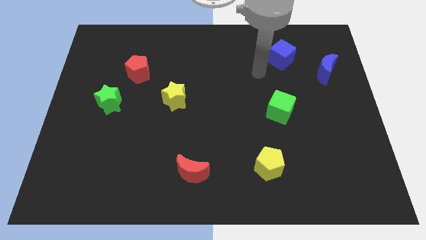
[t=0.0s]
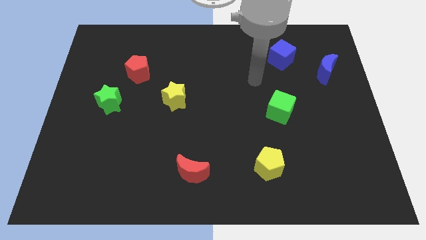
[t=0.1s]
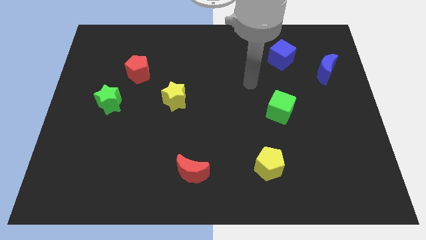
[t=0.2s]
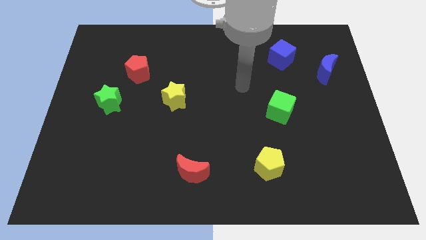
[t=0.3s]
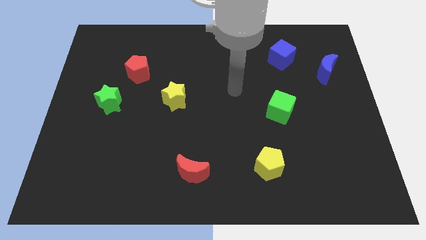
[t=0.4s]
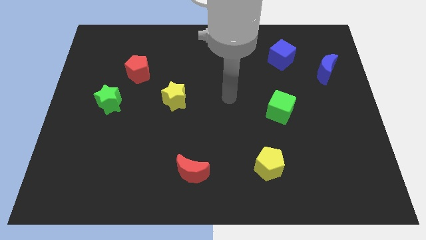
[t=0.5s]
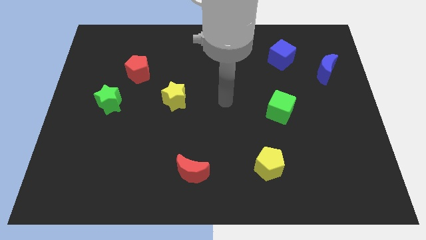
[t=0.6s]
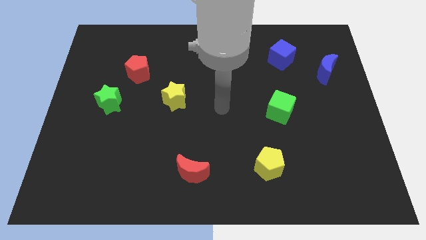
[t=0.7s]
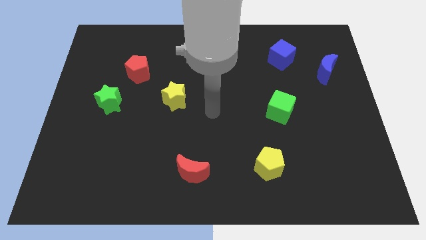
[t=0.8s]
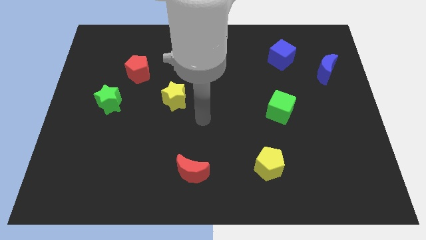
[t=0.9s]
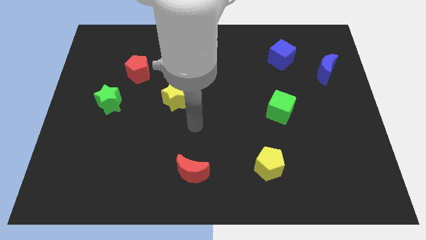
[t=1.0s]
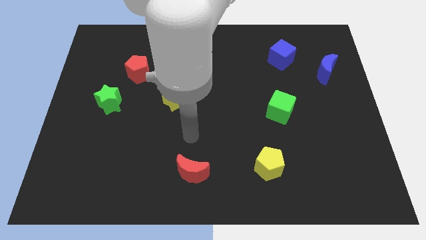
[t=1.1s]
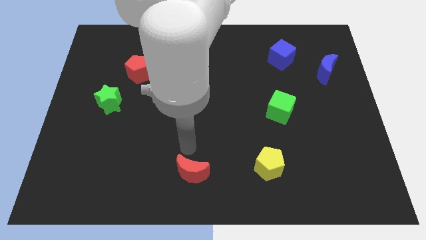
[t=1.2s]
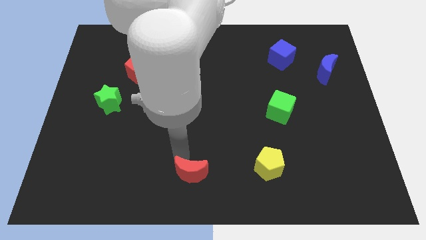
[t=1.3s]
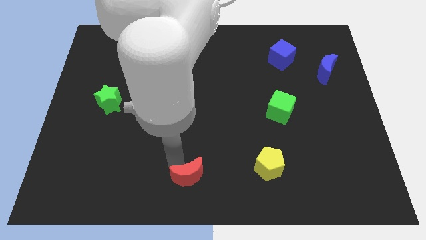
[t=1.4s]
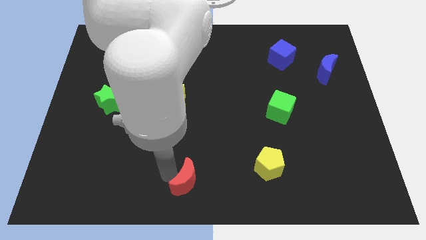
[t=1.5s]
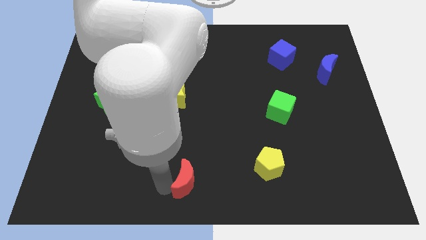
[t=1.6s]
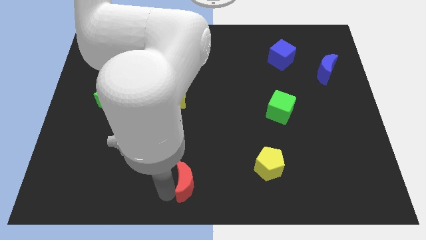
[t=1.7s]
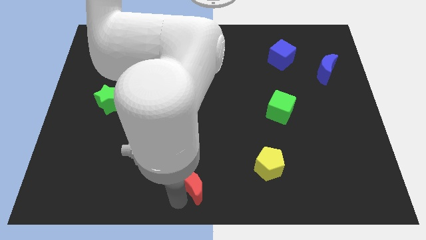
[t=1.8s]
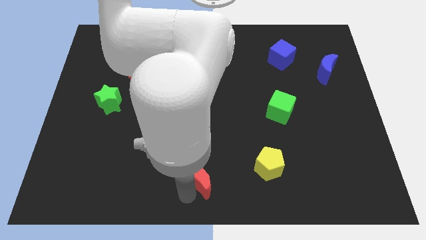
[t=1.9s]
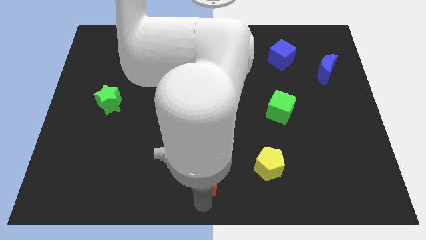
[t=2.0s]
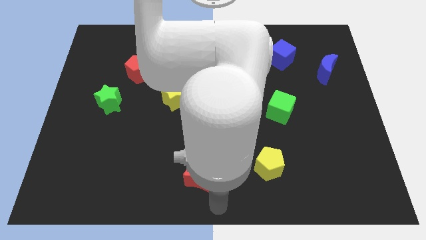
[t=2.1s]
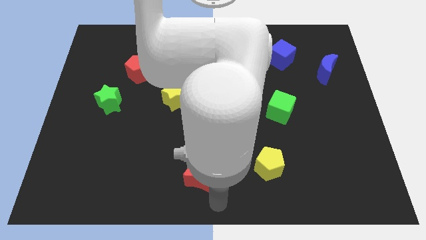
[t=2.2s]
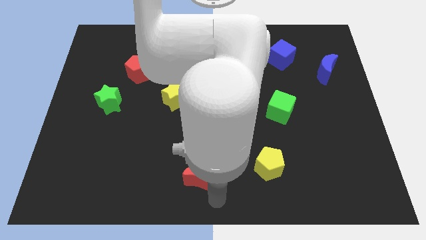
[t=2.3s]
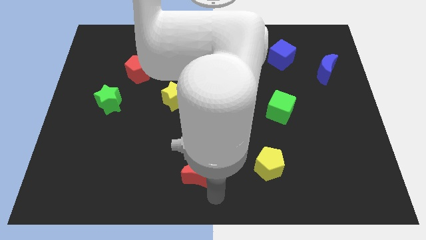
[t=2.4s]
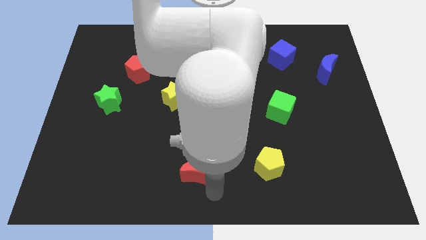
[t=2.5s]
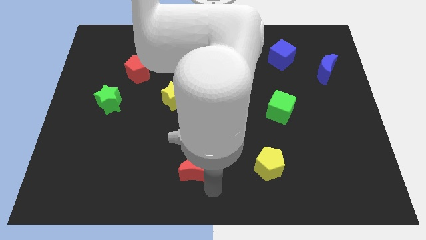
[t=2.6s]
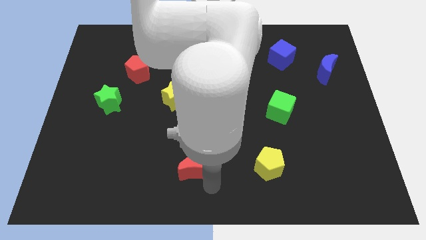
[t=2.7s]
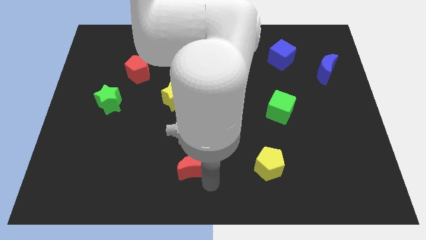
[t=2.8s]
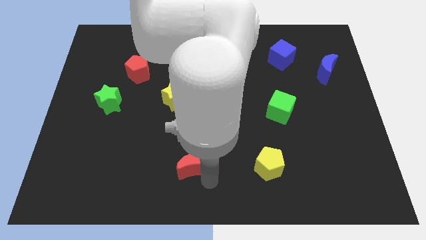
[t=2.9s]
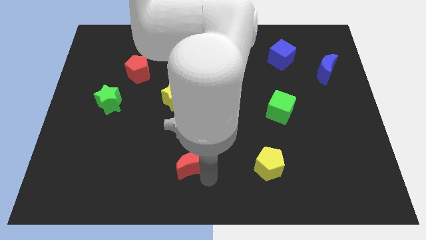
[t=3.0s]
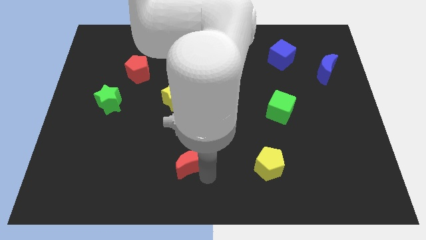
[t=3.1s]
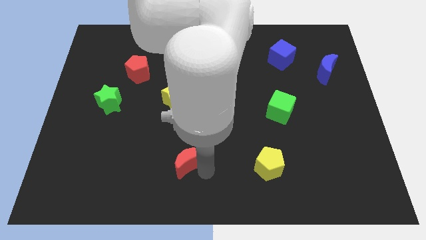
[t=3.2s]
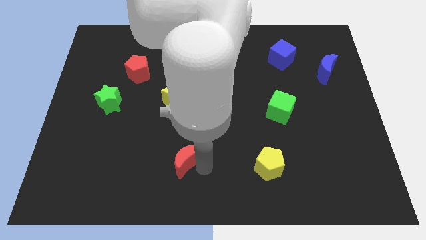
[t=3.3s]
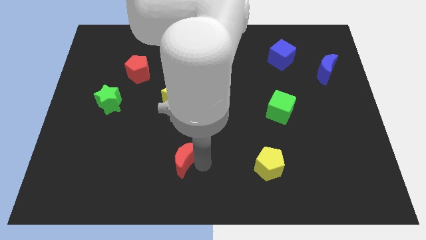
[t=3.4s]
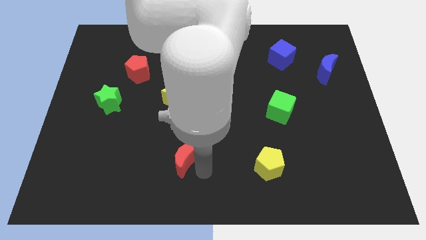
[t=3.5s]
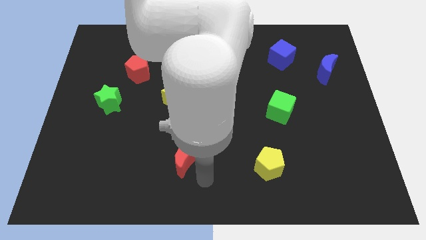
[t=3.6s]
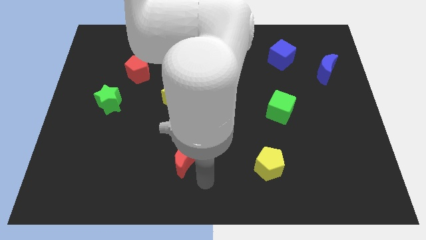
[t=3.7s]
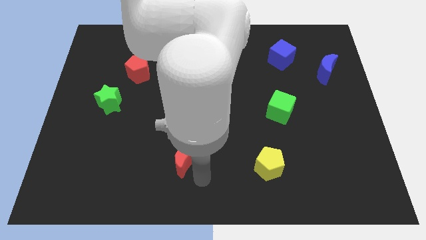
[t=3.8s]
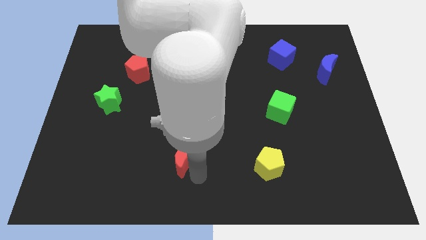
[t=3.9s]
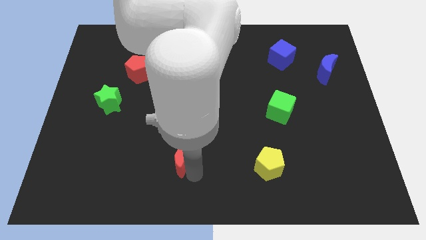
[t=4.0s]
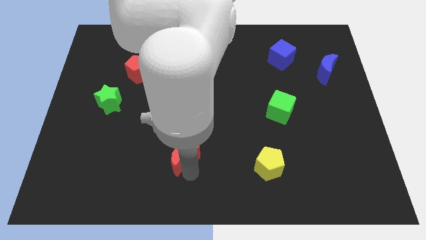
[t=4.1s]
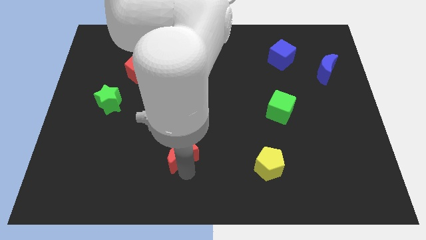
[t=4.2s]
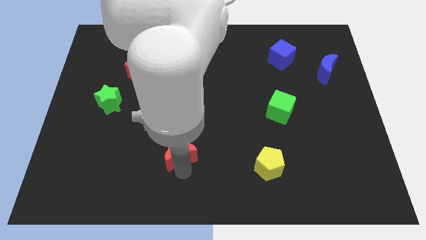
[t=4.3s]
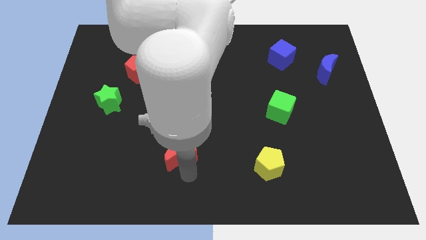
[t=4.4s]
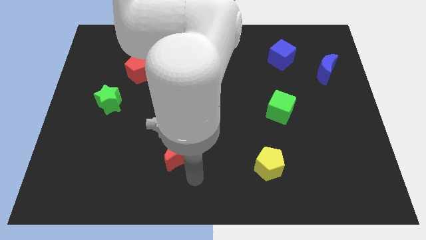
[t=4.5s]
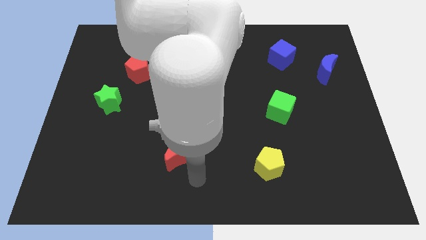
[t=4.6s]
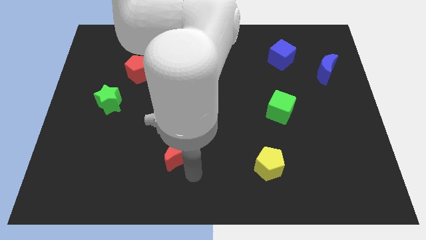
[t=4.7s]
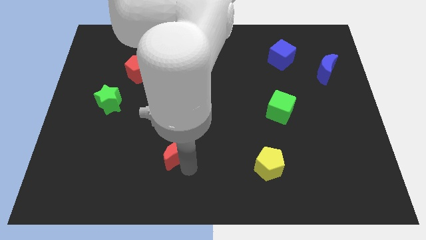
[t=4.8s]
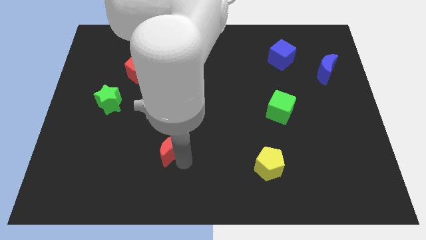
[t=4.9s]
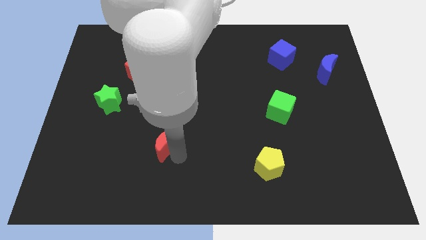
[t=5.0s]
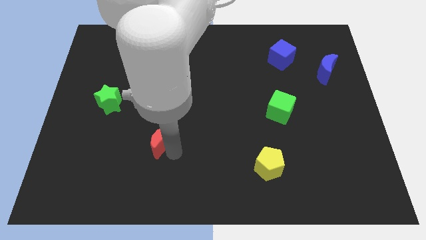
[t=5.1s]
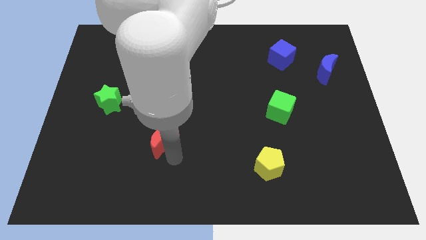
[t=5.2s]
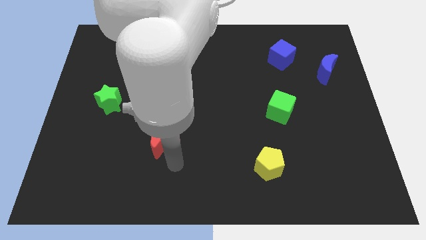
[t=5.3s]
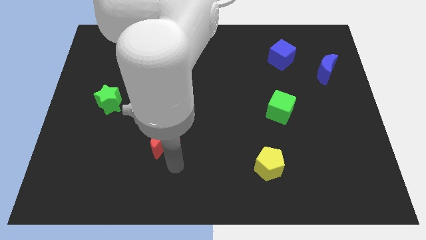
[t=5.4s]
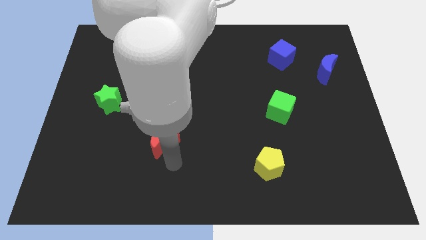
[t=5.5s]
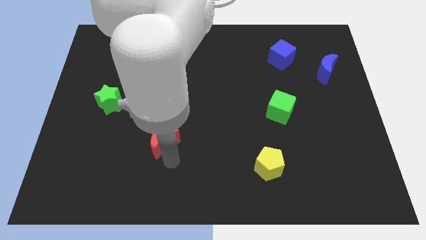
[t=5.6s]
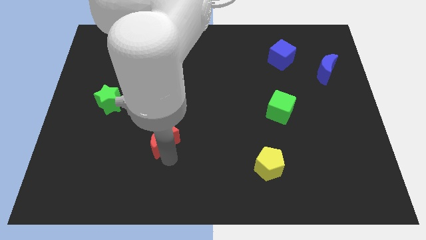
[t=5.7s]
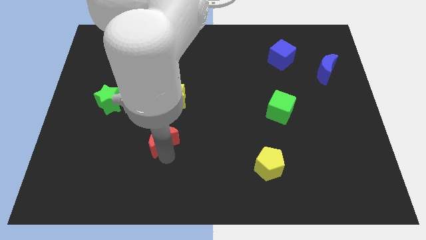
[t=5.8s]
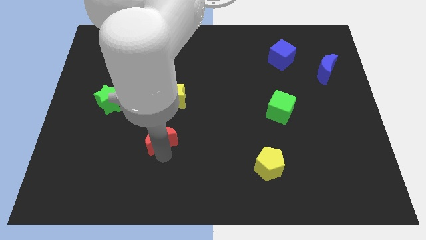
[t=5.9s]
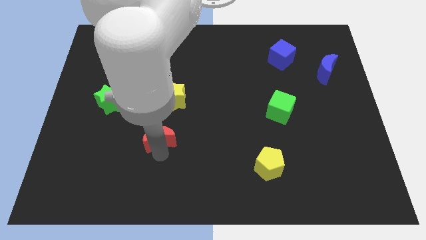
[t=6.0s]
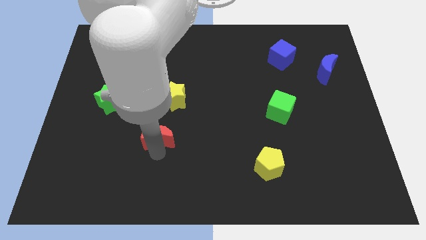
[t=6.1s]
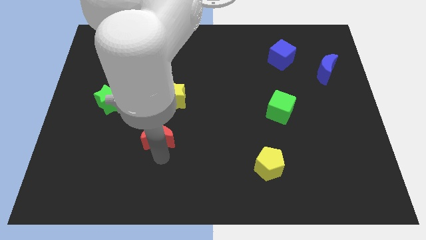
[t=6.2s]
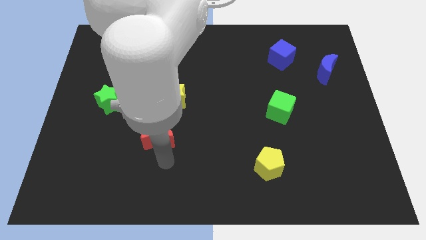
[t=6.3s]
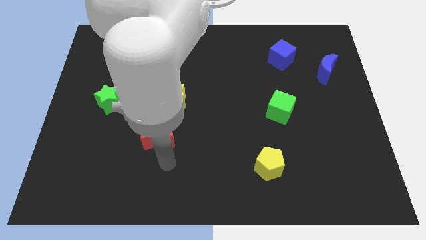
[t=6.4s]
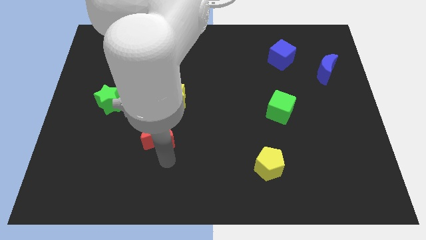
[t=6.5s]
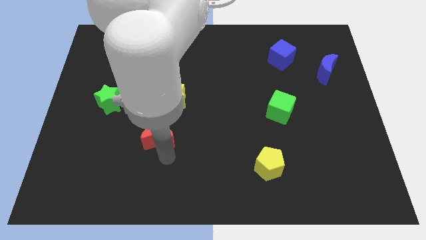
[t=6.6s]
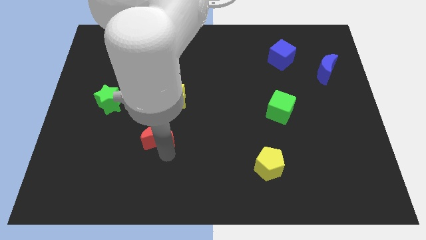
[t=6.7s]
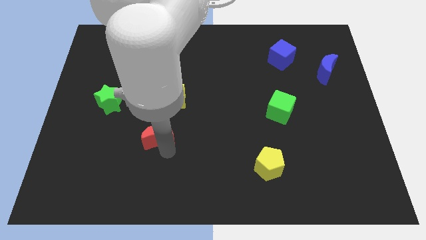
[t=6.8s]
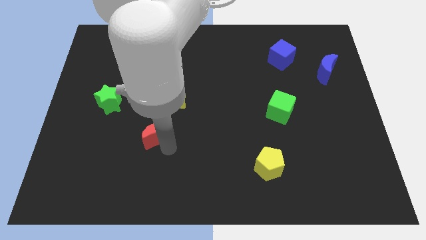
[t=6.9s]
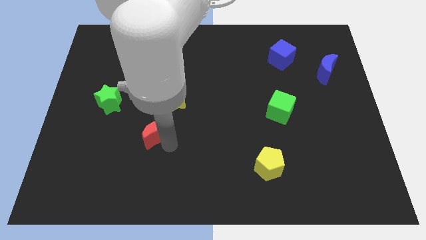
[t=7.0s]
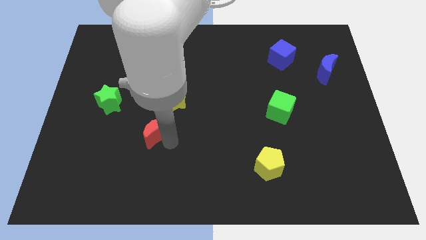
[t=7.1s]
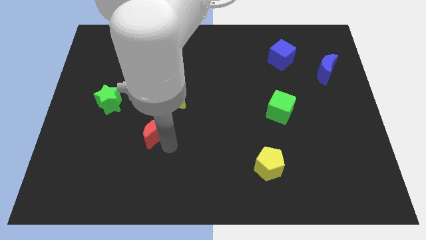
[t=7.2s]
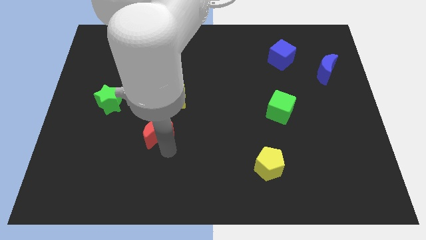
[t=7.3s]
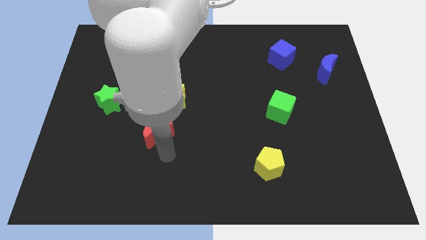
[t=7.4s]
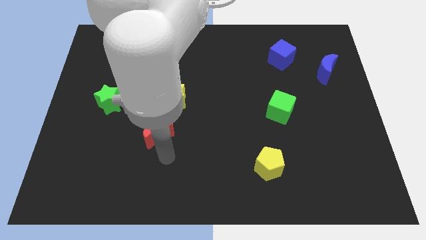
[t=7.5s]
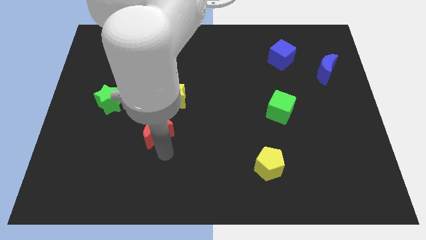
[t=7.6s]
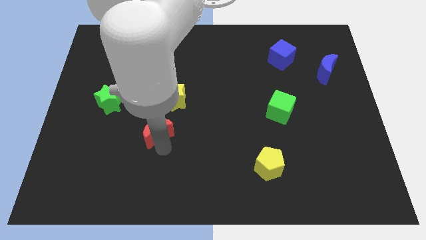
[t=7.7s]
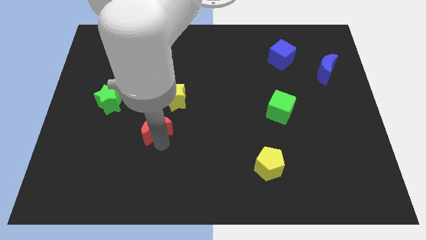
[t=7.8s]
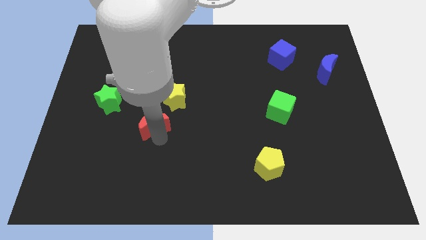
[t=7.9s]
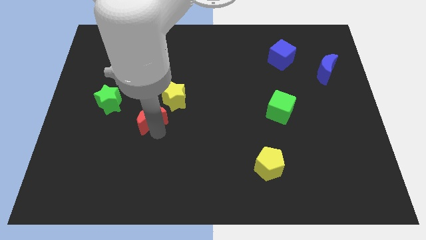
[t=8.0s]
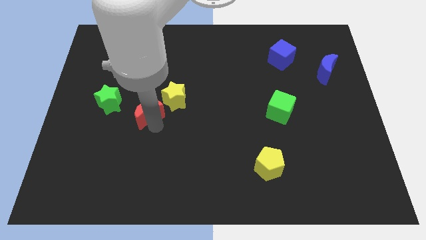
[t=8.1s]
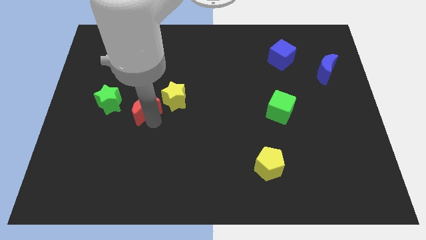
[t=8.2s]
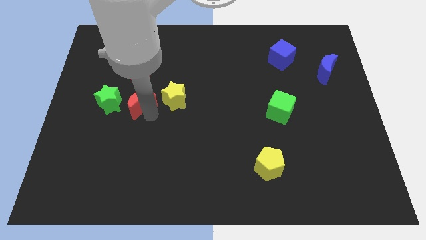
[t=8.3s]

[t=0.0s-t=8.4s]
move the red moon up and then left
